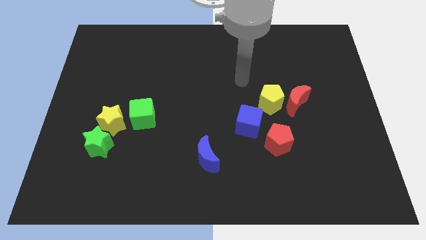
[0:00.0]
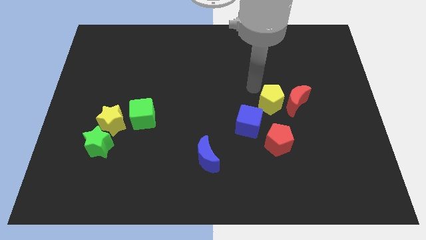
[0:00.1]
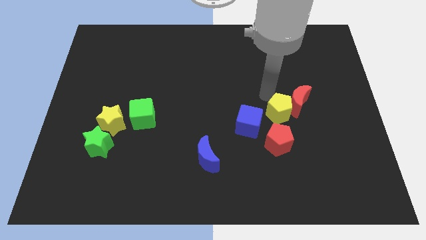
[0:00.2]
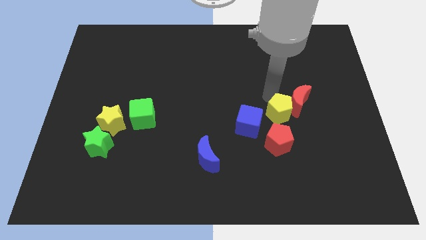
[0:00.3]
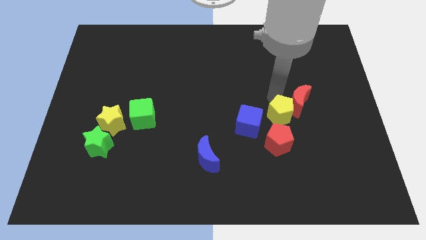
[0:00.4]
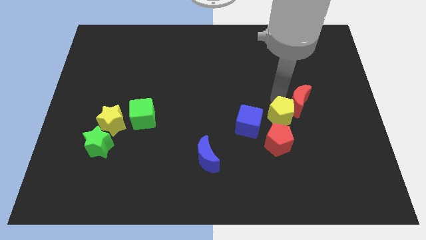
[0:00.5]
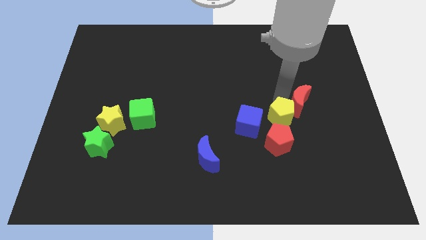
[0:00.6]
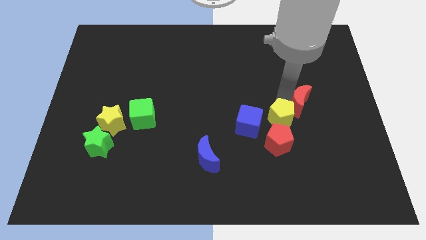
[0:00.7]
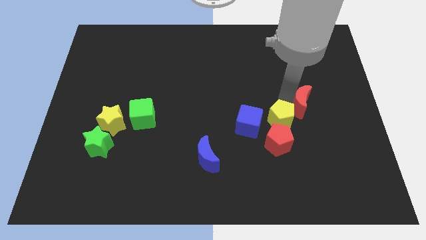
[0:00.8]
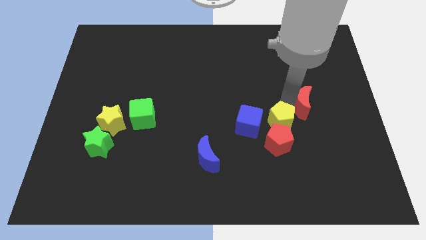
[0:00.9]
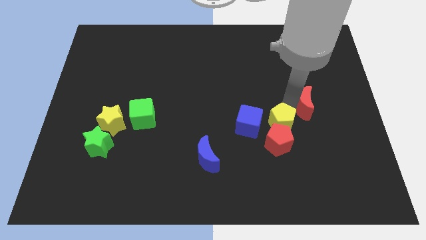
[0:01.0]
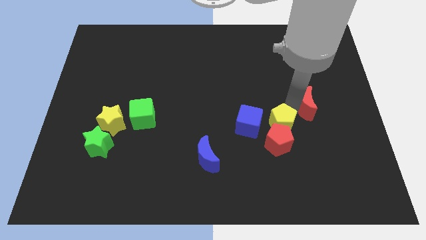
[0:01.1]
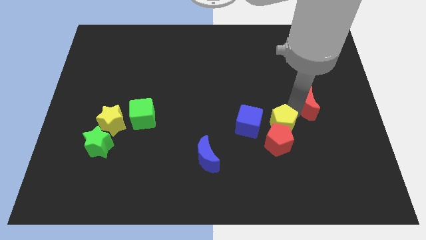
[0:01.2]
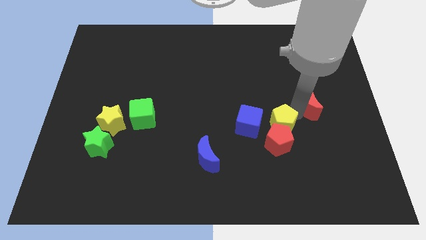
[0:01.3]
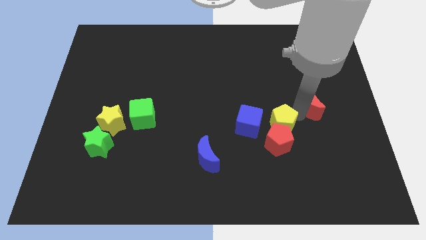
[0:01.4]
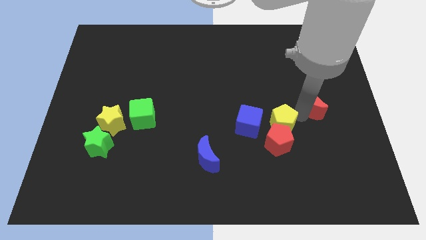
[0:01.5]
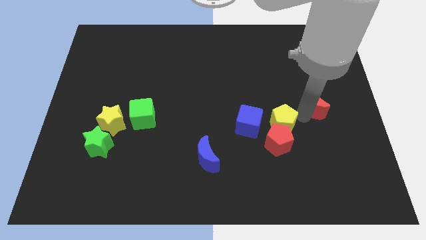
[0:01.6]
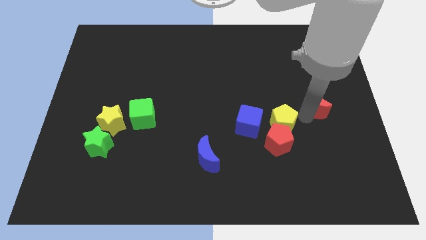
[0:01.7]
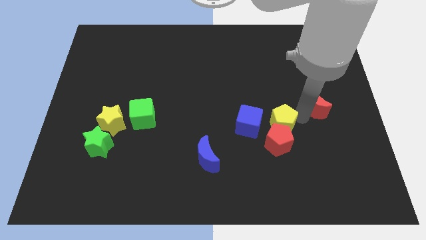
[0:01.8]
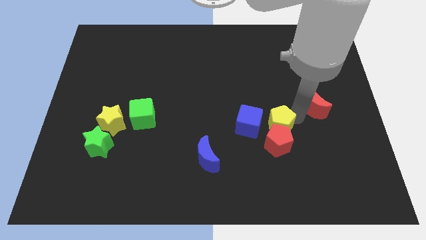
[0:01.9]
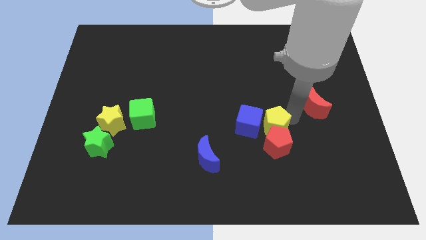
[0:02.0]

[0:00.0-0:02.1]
move the red moon away from the yellow pentagon

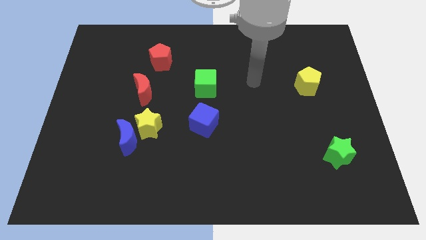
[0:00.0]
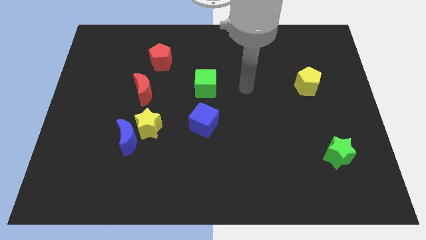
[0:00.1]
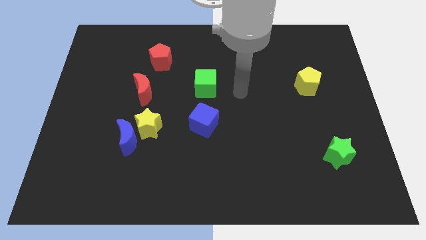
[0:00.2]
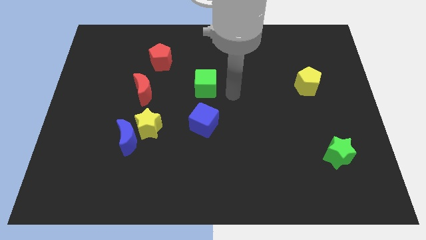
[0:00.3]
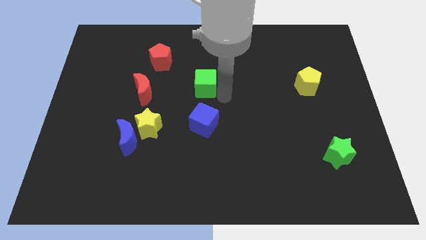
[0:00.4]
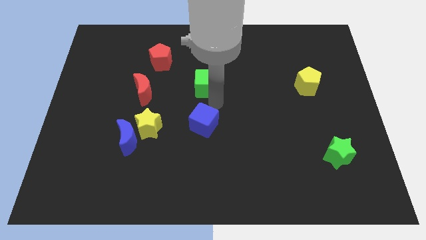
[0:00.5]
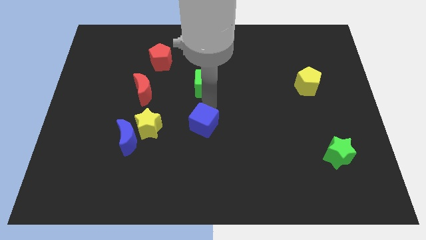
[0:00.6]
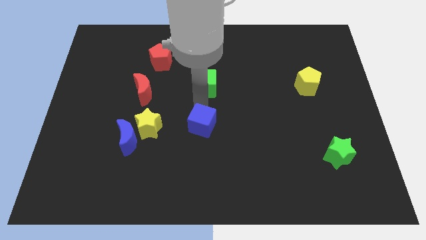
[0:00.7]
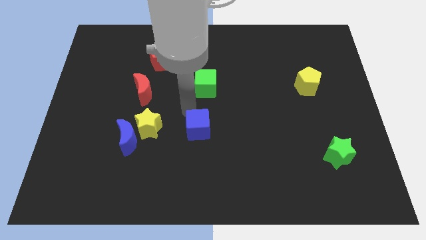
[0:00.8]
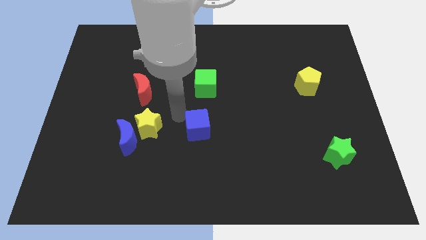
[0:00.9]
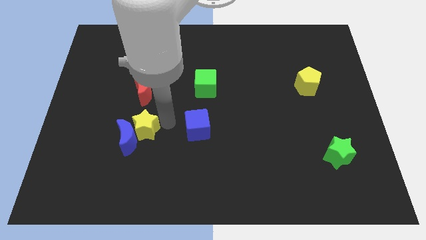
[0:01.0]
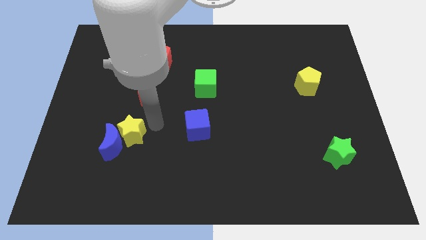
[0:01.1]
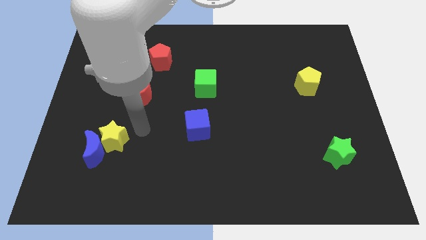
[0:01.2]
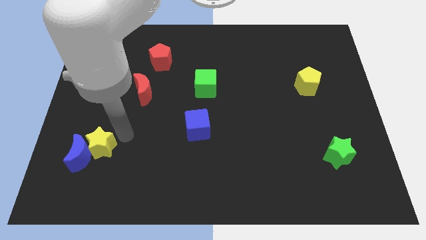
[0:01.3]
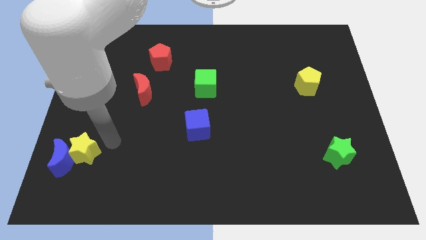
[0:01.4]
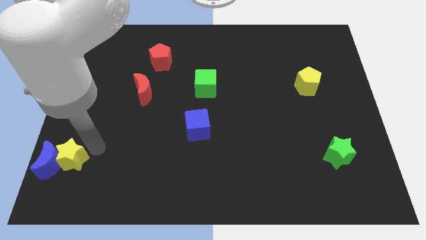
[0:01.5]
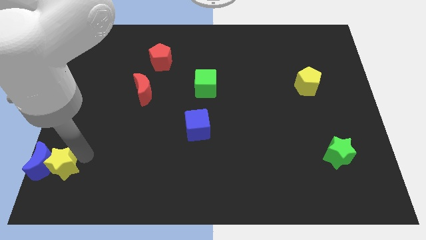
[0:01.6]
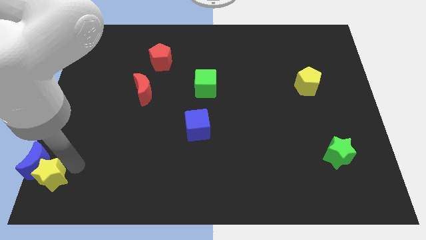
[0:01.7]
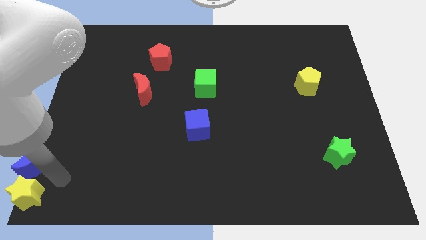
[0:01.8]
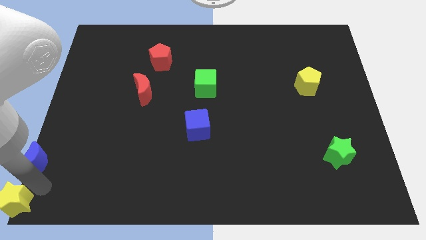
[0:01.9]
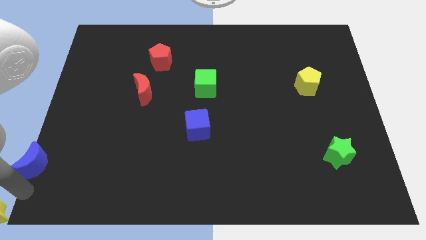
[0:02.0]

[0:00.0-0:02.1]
move the blue moon away from the yellow star

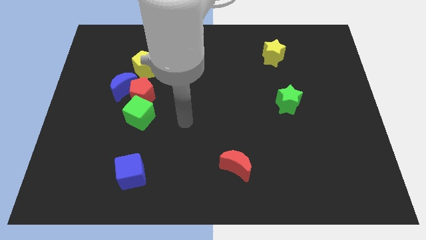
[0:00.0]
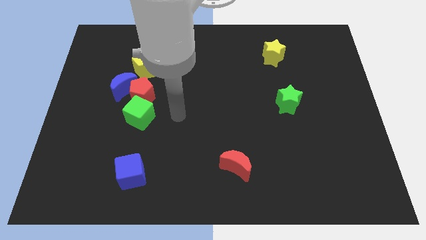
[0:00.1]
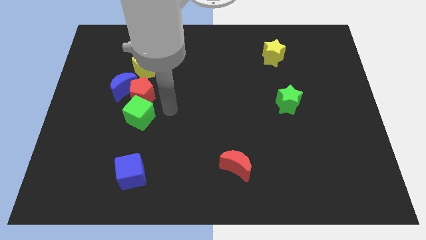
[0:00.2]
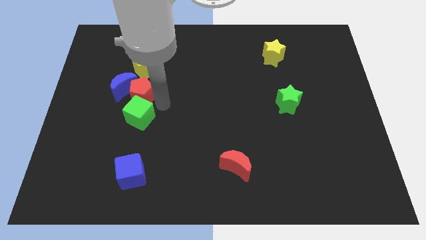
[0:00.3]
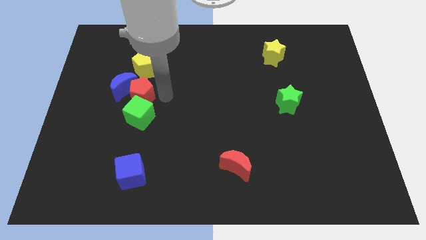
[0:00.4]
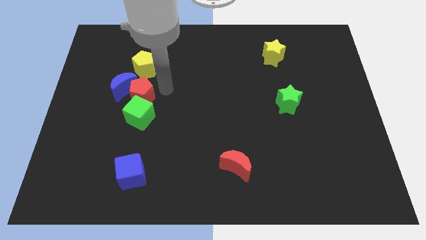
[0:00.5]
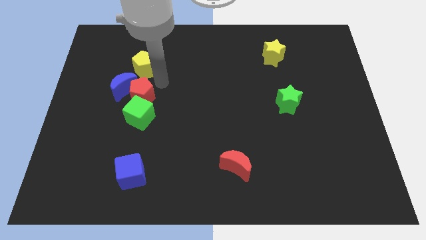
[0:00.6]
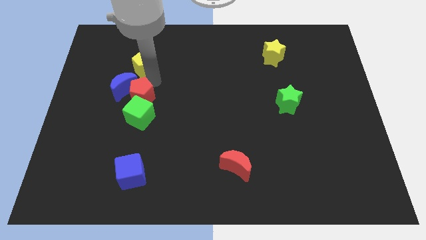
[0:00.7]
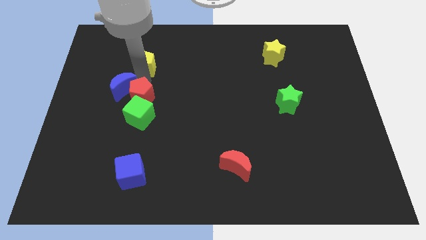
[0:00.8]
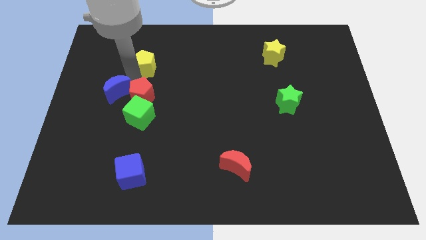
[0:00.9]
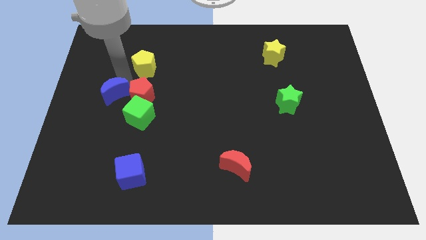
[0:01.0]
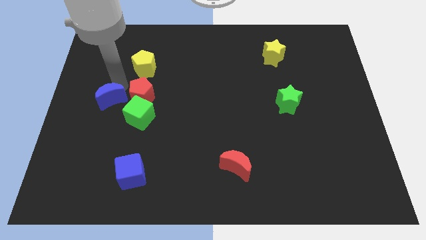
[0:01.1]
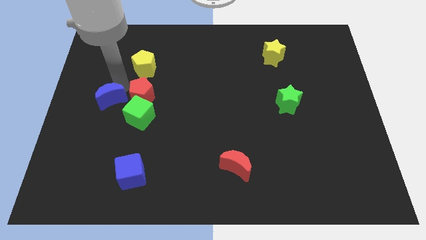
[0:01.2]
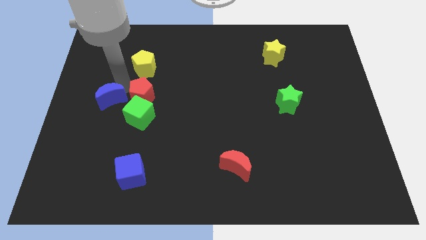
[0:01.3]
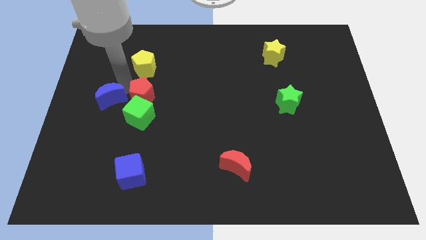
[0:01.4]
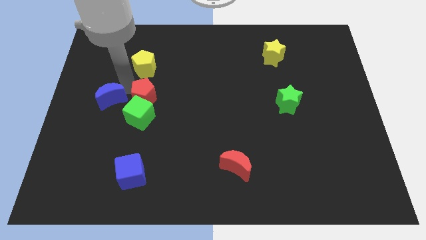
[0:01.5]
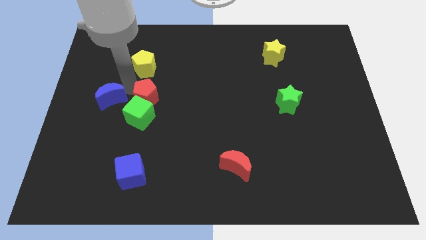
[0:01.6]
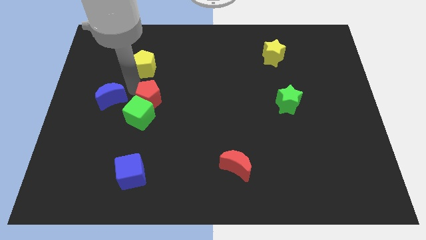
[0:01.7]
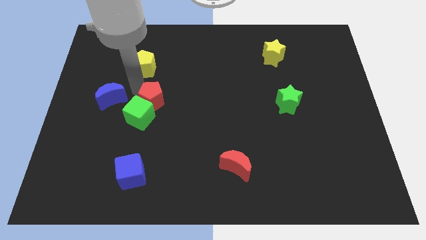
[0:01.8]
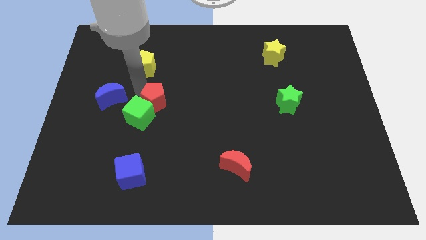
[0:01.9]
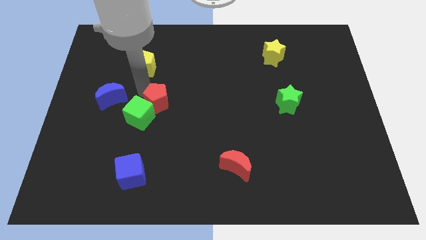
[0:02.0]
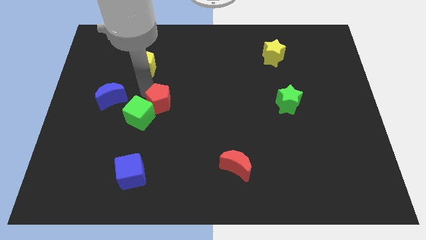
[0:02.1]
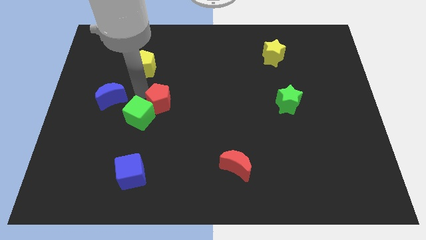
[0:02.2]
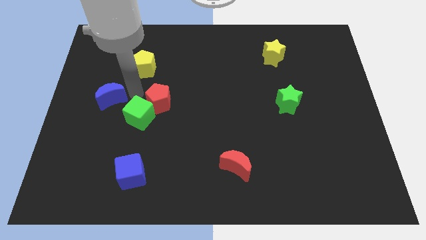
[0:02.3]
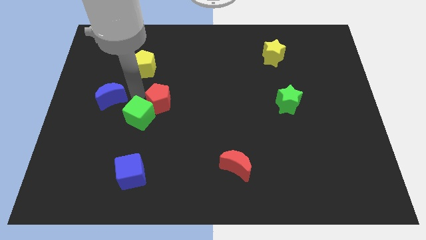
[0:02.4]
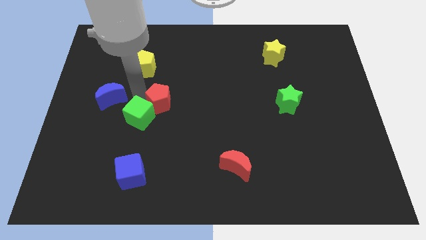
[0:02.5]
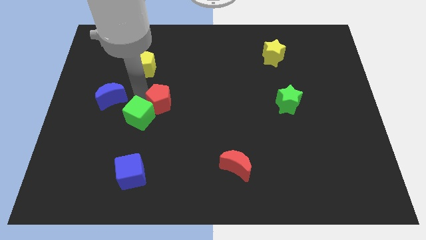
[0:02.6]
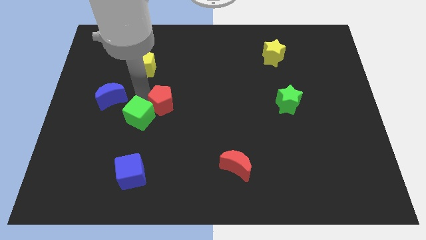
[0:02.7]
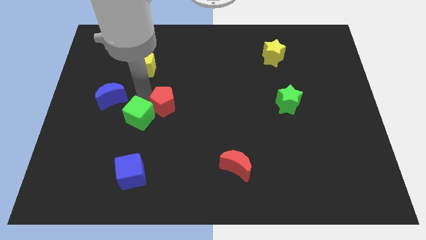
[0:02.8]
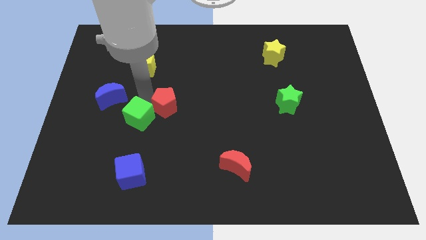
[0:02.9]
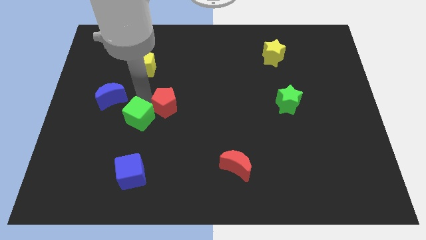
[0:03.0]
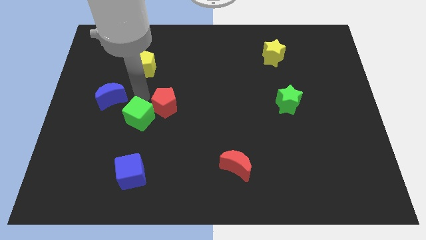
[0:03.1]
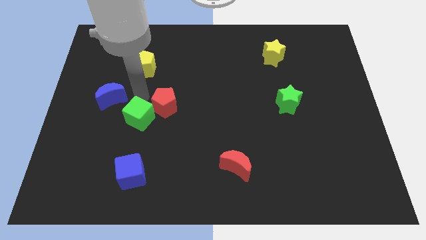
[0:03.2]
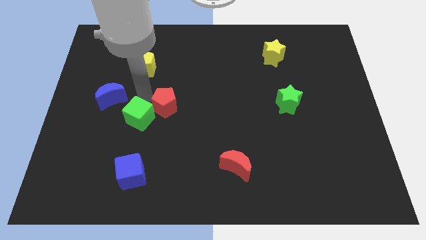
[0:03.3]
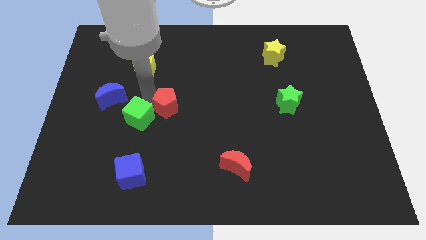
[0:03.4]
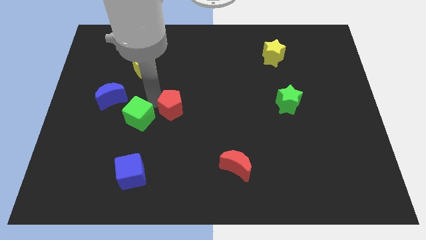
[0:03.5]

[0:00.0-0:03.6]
move the red pentagon away from the blue moon, green cube, and yellow pentagon

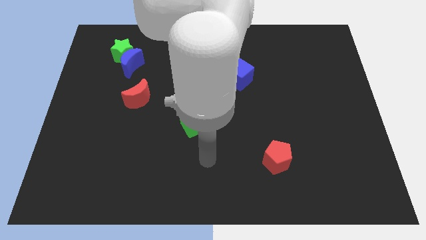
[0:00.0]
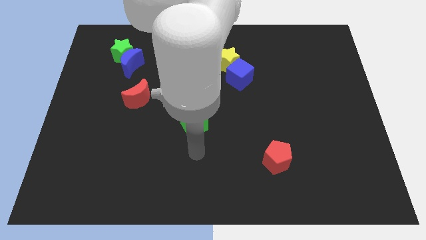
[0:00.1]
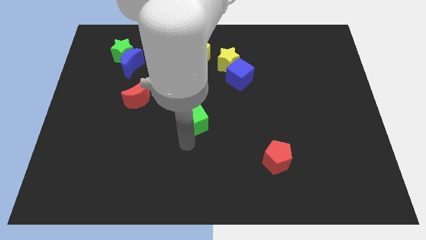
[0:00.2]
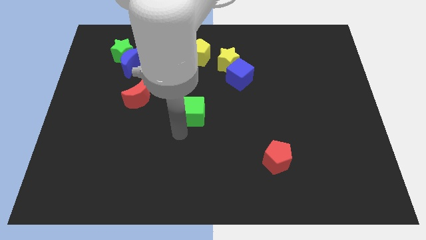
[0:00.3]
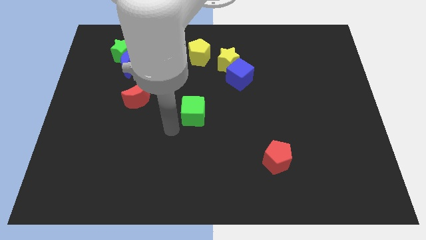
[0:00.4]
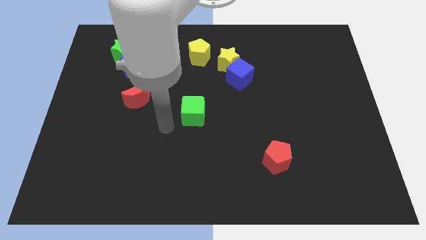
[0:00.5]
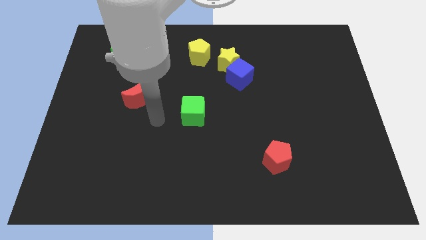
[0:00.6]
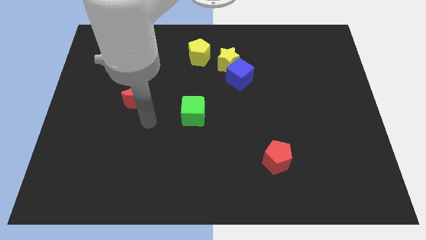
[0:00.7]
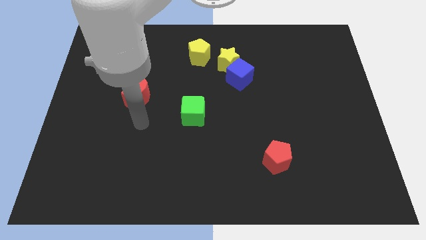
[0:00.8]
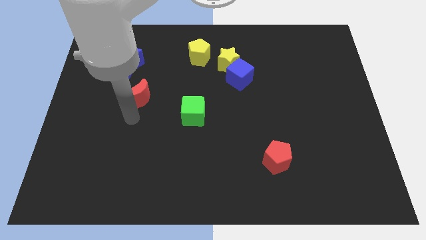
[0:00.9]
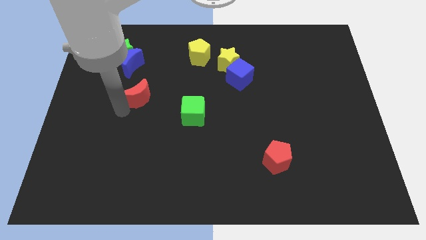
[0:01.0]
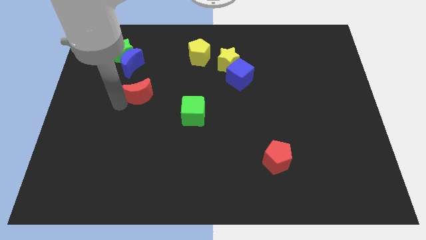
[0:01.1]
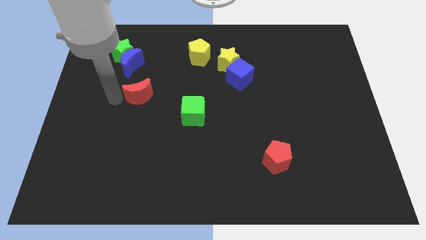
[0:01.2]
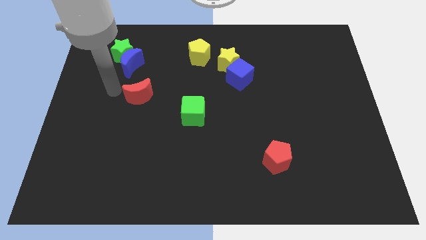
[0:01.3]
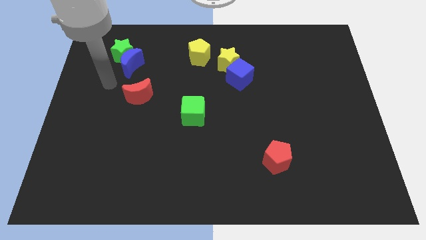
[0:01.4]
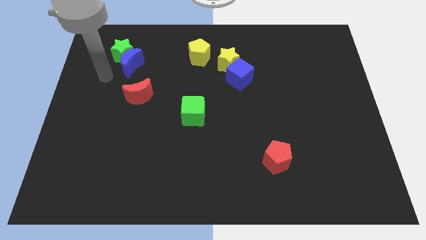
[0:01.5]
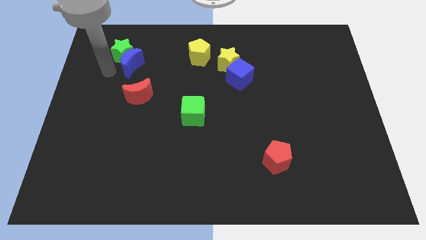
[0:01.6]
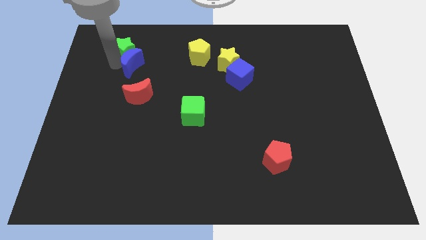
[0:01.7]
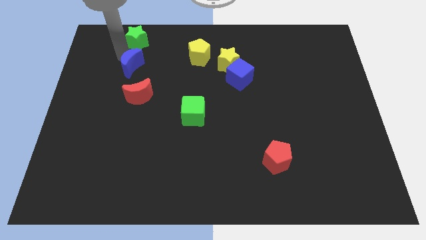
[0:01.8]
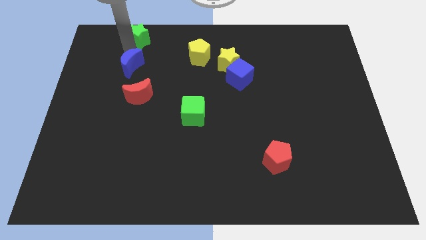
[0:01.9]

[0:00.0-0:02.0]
move the blue moon away from the green star
